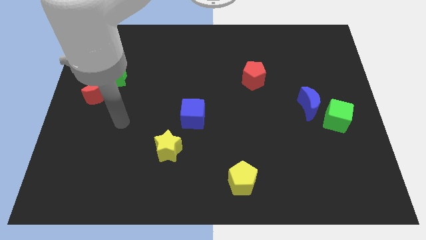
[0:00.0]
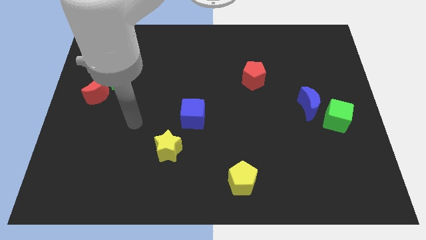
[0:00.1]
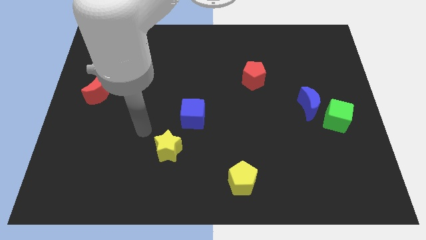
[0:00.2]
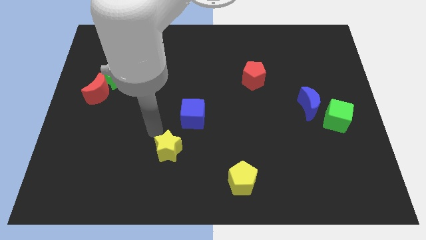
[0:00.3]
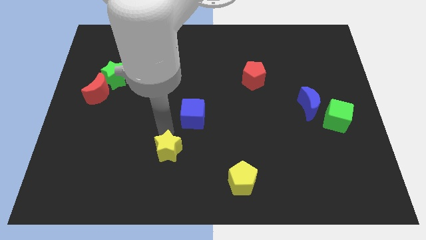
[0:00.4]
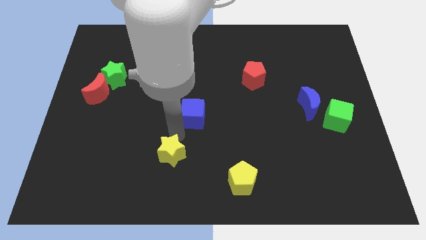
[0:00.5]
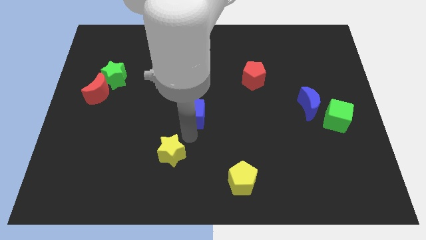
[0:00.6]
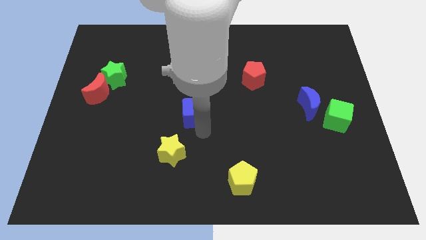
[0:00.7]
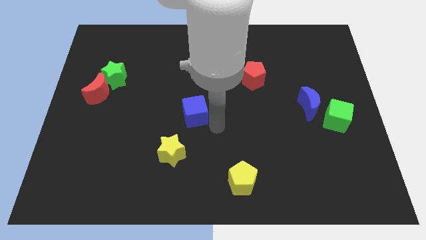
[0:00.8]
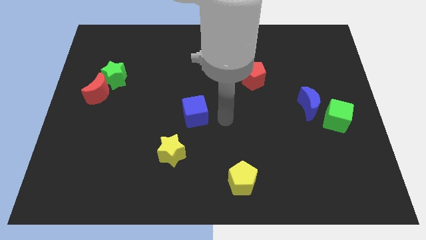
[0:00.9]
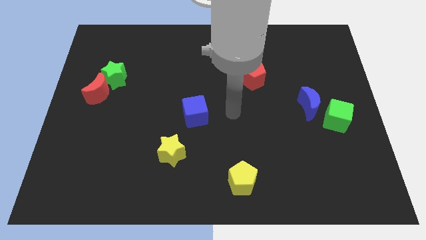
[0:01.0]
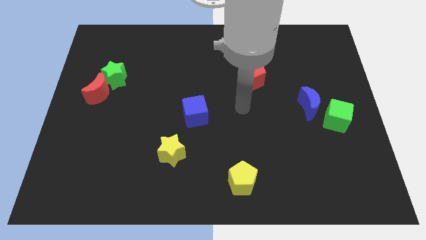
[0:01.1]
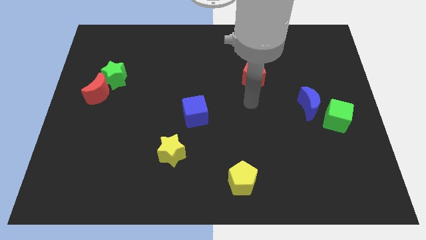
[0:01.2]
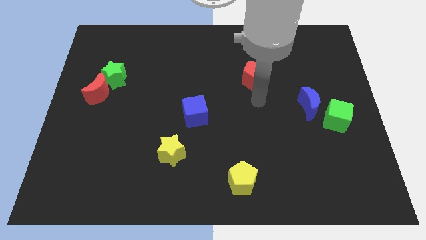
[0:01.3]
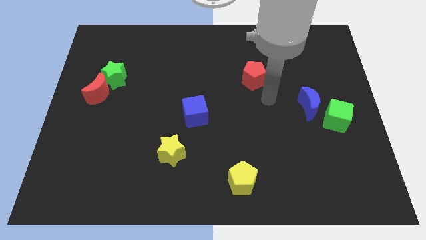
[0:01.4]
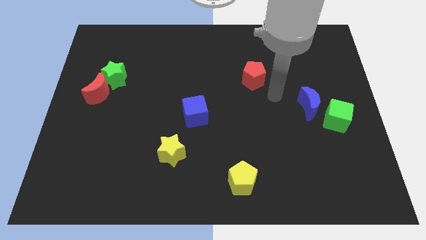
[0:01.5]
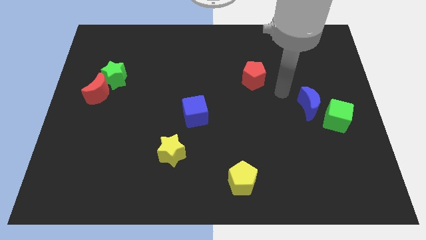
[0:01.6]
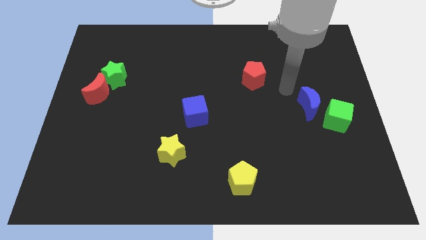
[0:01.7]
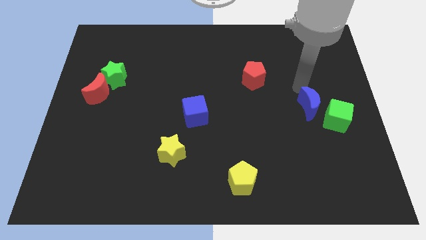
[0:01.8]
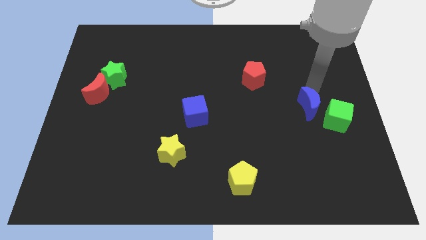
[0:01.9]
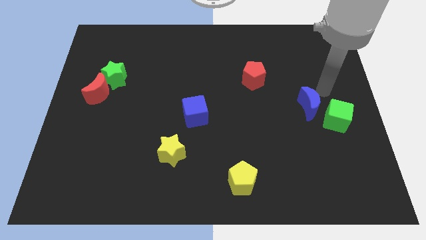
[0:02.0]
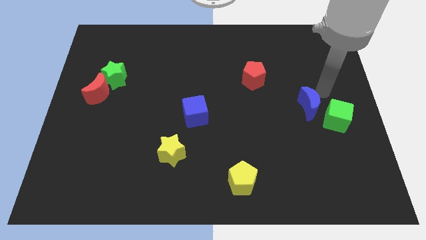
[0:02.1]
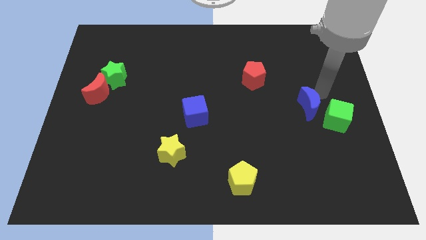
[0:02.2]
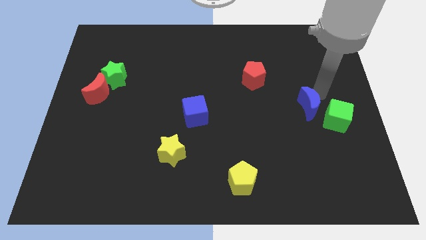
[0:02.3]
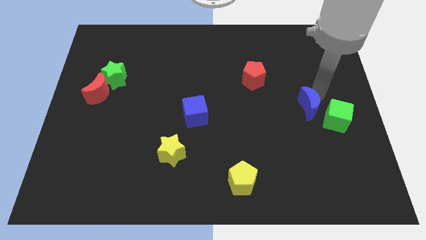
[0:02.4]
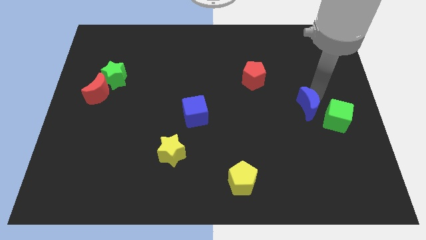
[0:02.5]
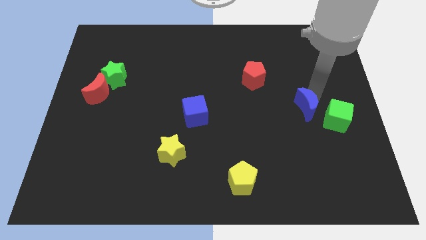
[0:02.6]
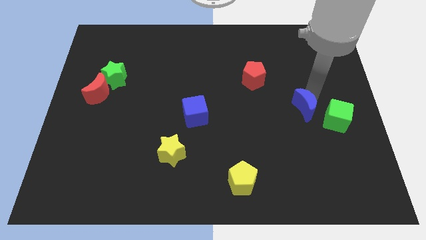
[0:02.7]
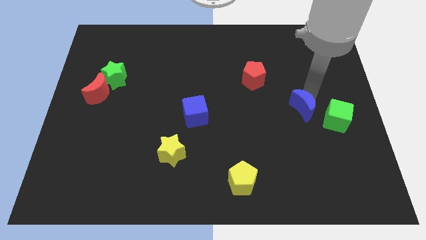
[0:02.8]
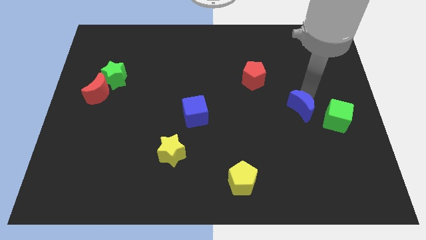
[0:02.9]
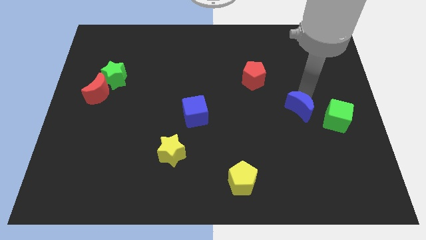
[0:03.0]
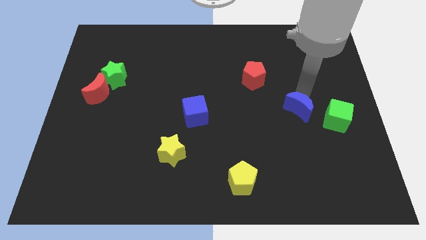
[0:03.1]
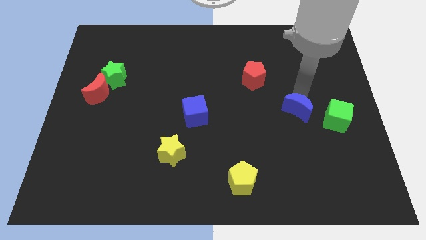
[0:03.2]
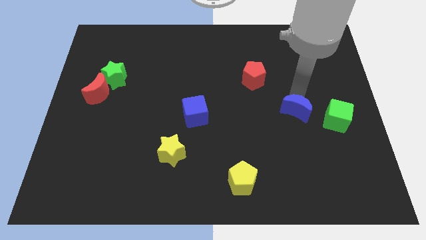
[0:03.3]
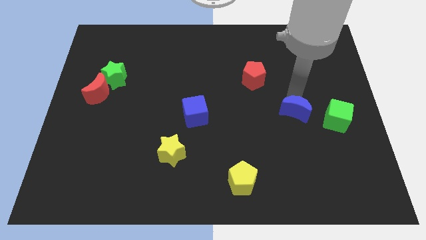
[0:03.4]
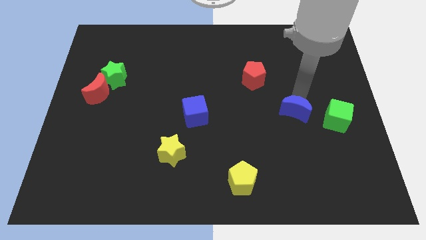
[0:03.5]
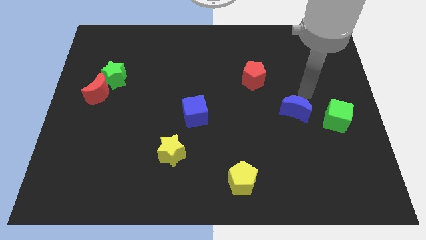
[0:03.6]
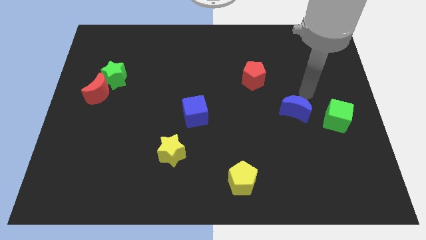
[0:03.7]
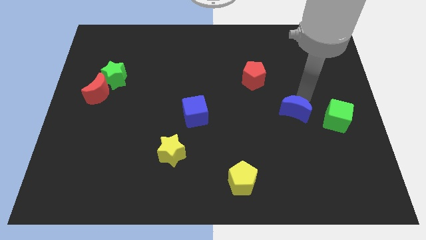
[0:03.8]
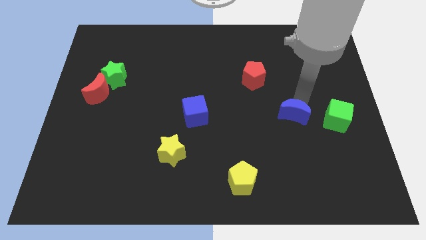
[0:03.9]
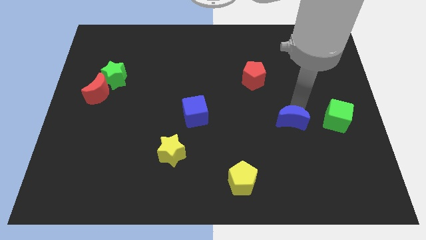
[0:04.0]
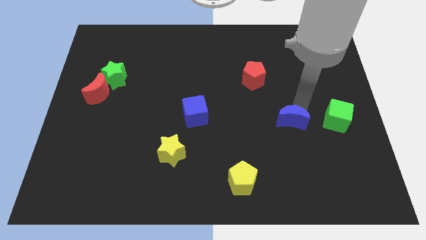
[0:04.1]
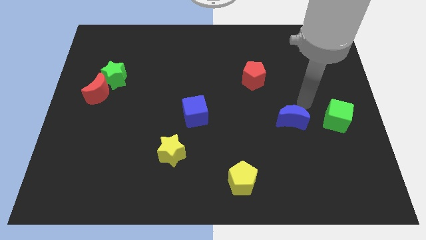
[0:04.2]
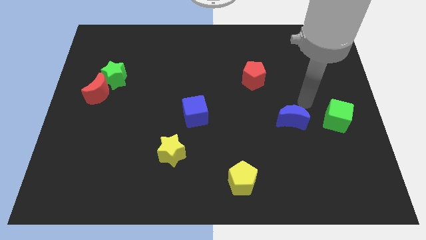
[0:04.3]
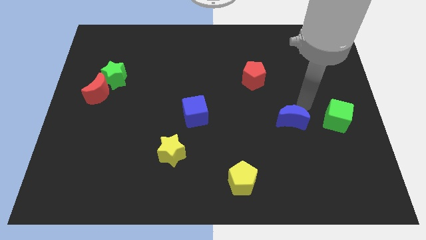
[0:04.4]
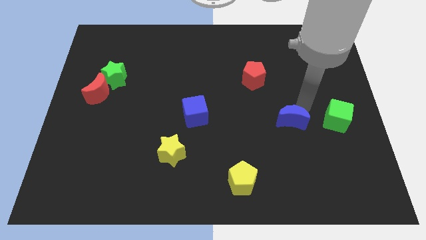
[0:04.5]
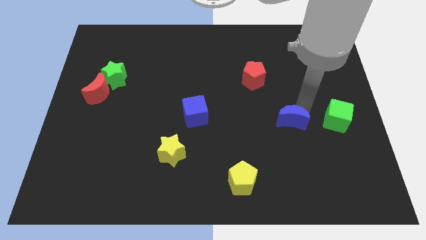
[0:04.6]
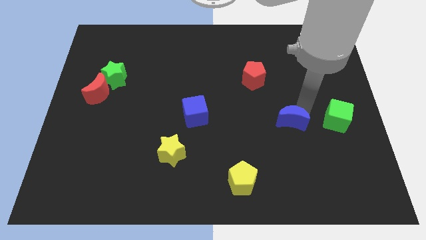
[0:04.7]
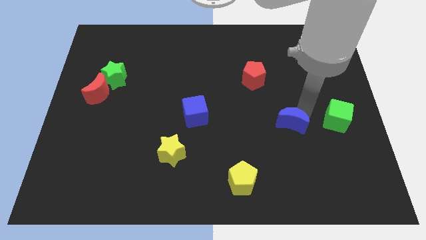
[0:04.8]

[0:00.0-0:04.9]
push the blue moon downwards and left diagonally slightly

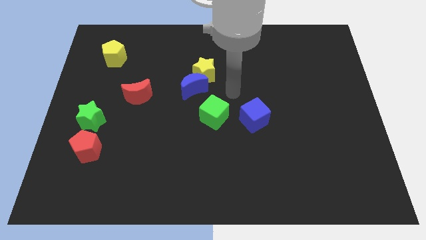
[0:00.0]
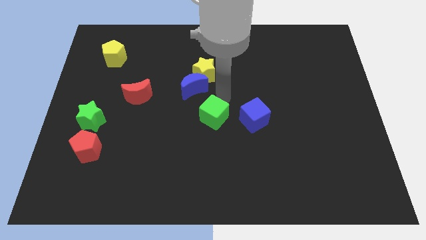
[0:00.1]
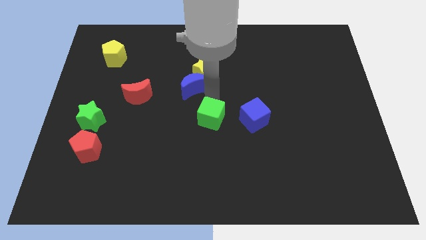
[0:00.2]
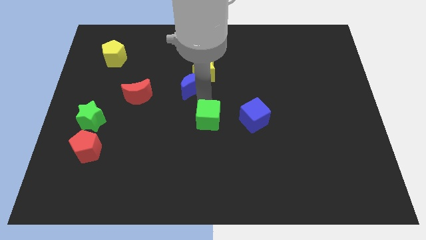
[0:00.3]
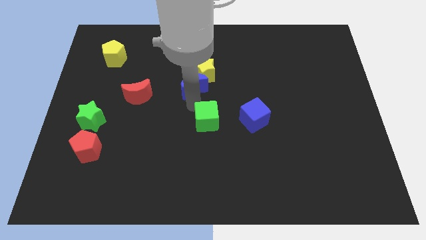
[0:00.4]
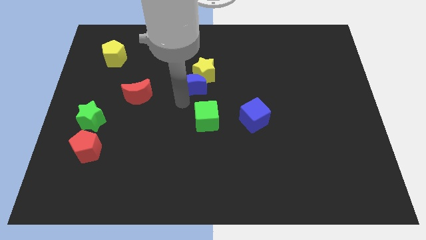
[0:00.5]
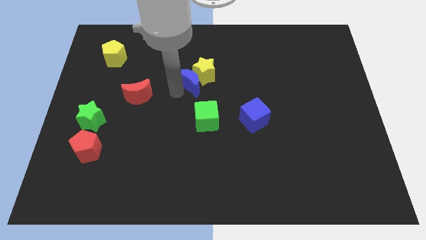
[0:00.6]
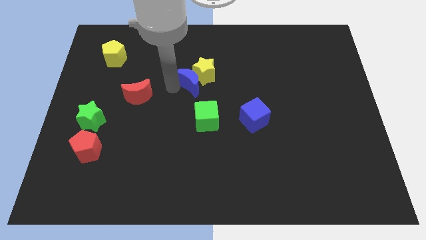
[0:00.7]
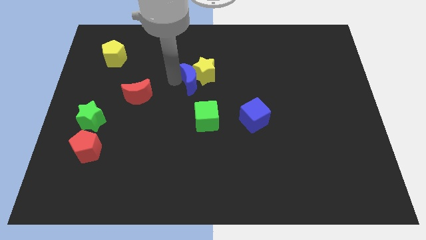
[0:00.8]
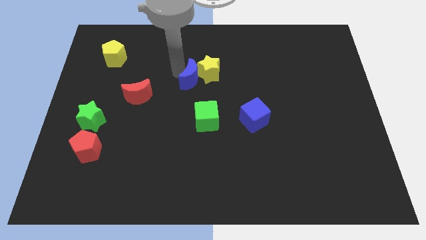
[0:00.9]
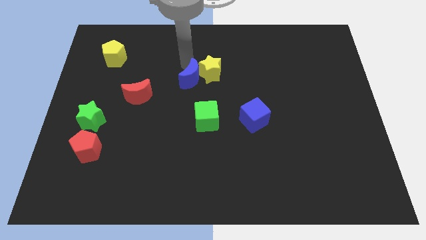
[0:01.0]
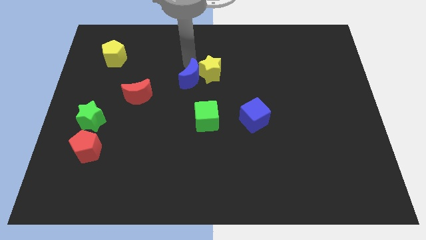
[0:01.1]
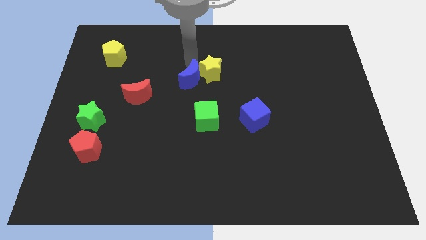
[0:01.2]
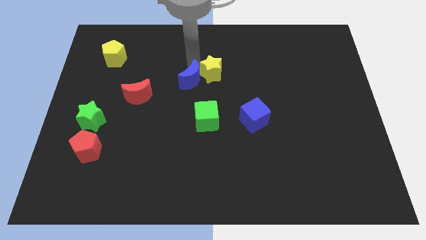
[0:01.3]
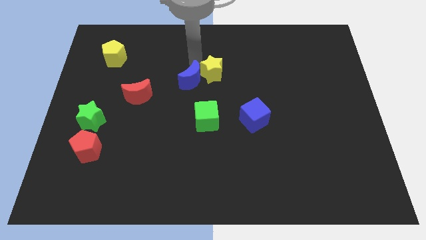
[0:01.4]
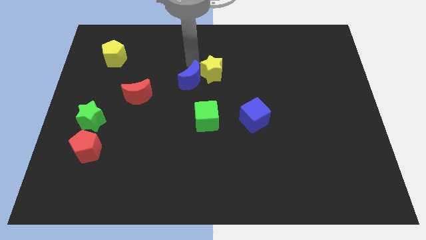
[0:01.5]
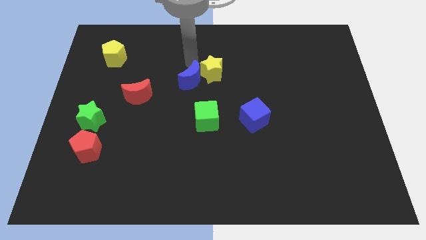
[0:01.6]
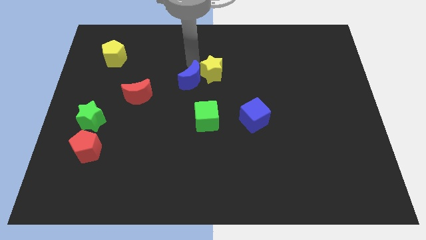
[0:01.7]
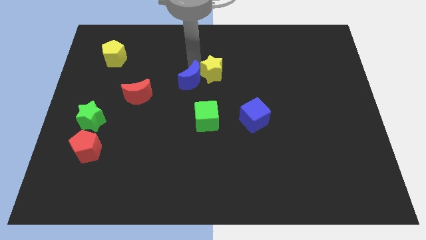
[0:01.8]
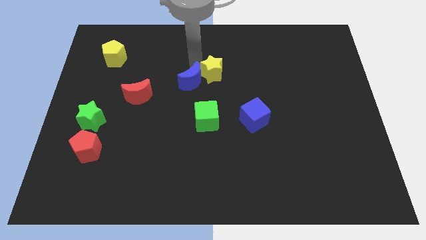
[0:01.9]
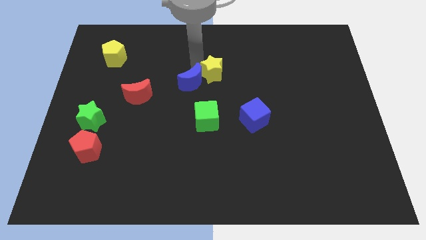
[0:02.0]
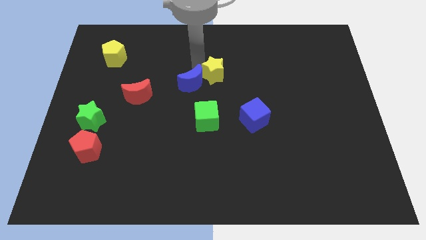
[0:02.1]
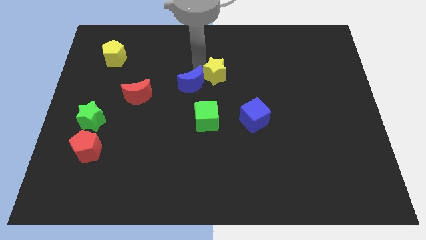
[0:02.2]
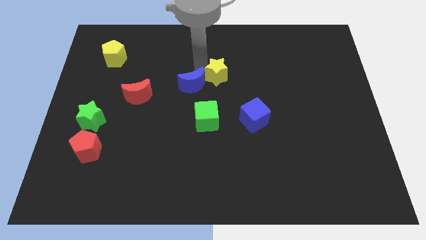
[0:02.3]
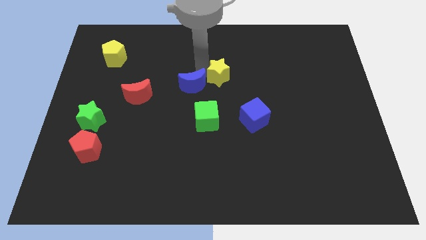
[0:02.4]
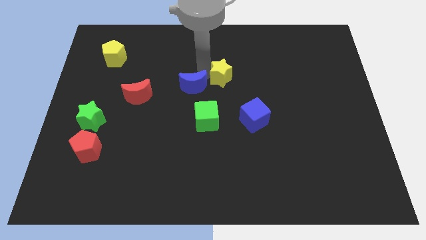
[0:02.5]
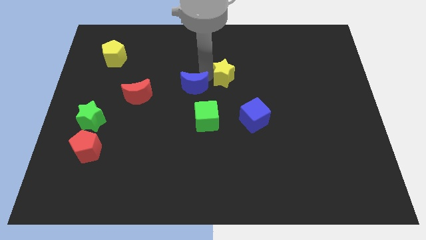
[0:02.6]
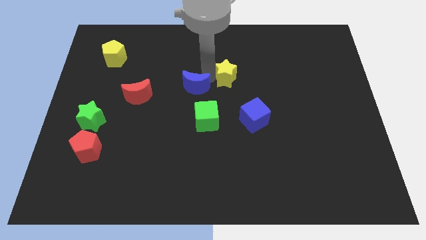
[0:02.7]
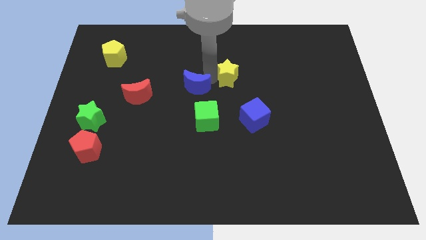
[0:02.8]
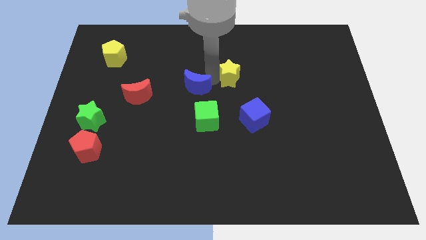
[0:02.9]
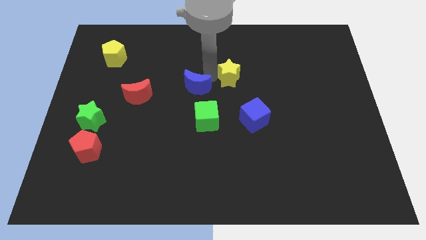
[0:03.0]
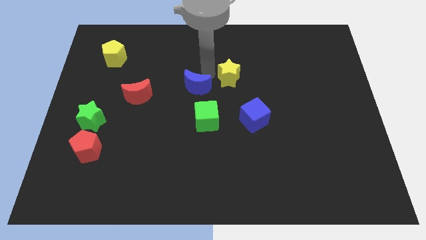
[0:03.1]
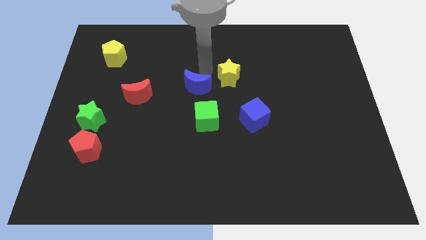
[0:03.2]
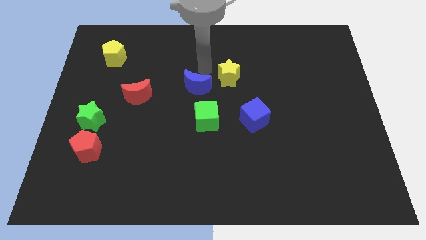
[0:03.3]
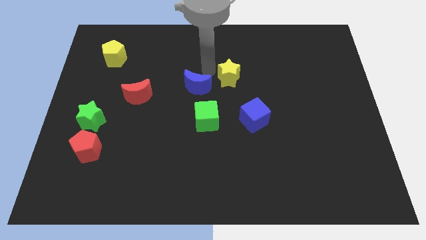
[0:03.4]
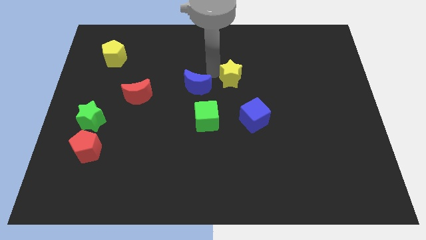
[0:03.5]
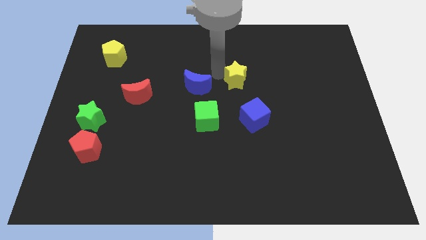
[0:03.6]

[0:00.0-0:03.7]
slightly push the yellow star to the right
